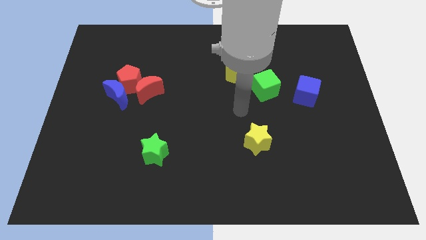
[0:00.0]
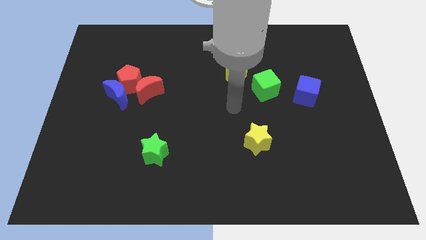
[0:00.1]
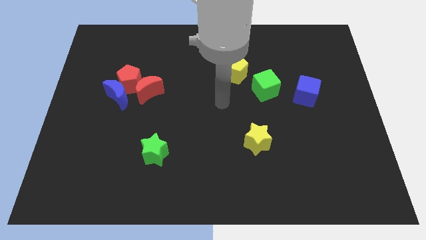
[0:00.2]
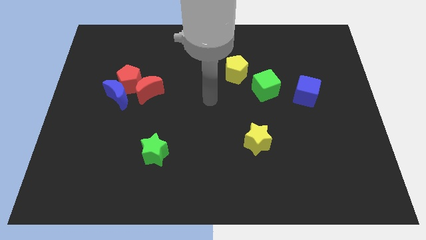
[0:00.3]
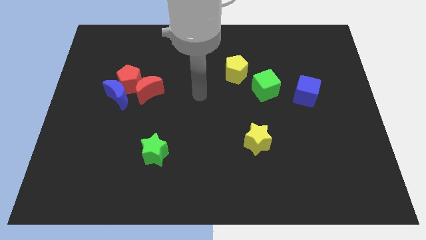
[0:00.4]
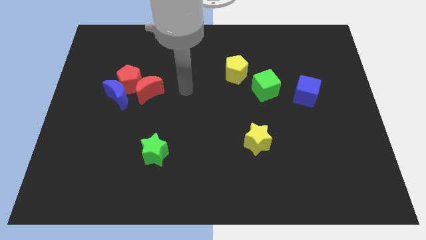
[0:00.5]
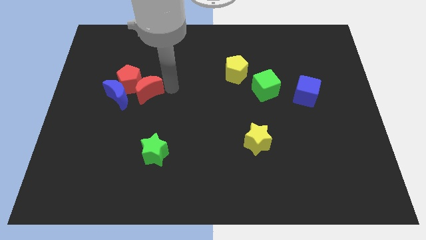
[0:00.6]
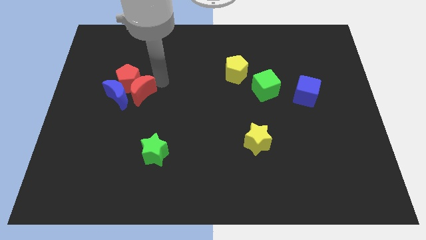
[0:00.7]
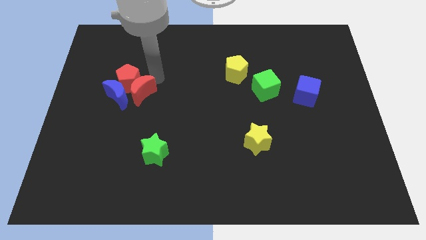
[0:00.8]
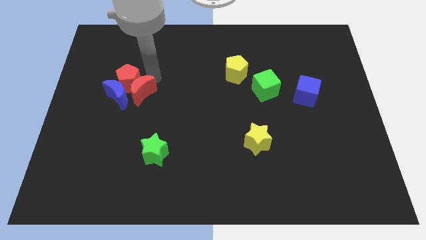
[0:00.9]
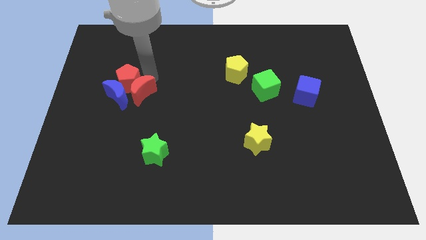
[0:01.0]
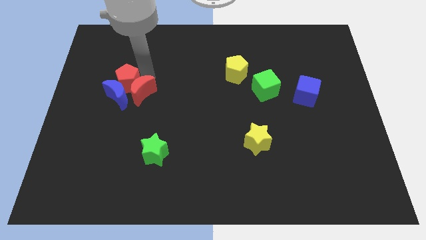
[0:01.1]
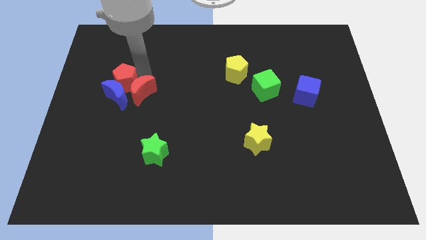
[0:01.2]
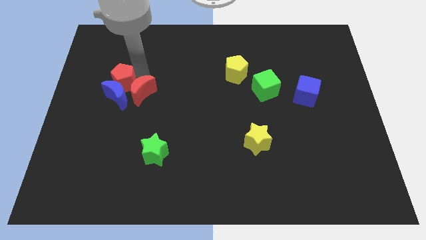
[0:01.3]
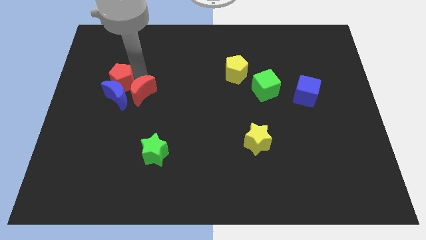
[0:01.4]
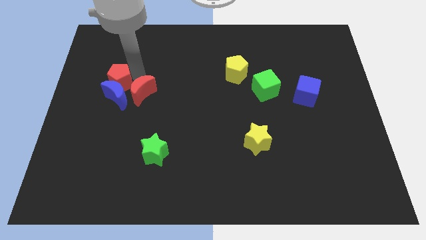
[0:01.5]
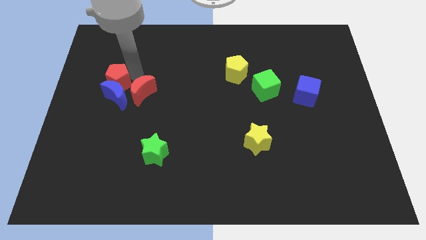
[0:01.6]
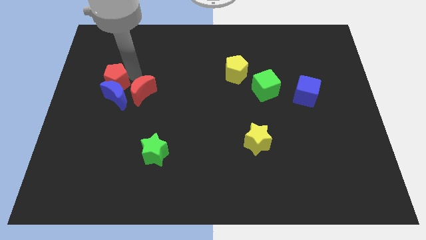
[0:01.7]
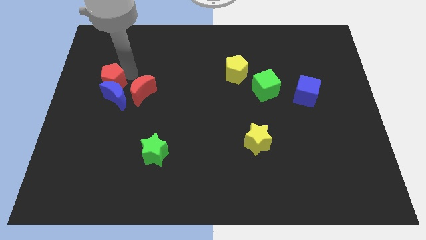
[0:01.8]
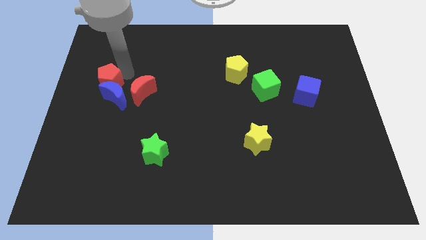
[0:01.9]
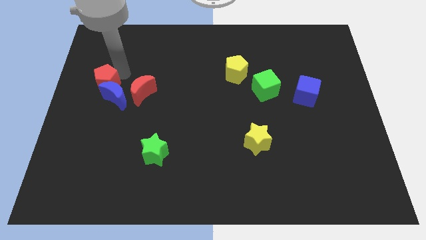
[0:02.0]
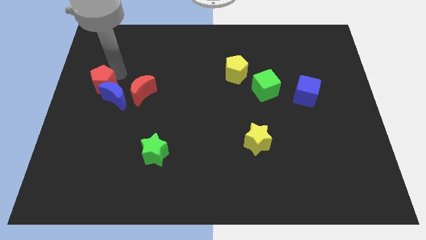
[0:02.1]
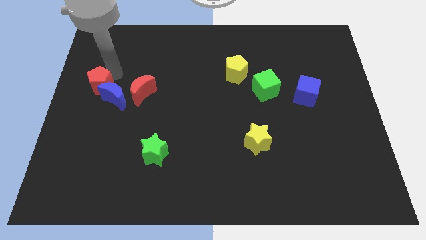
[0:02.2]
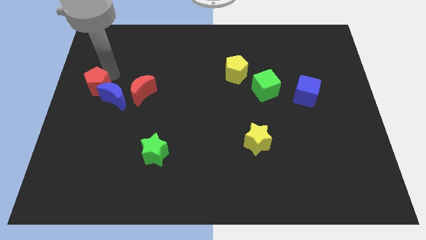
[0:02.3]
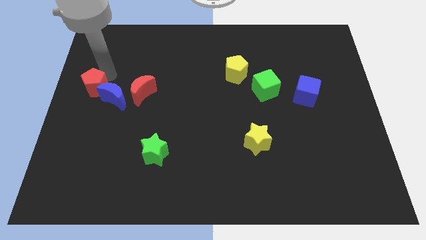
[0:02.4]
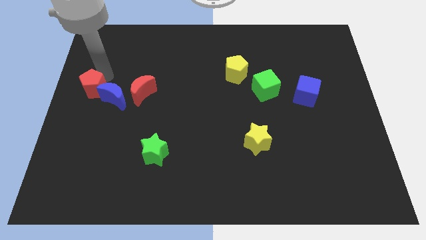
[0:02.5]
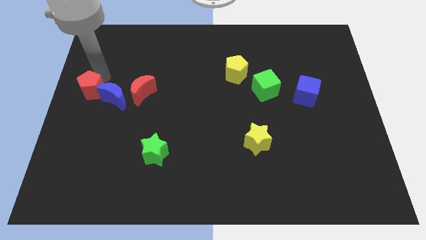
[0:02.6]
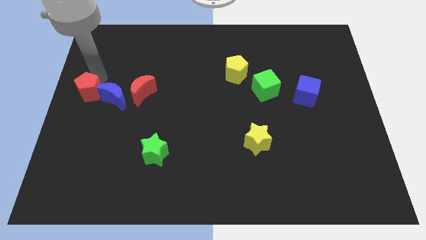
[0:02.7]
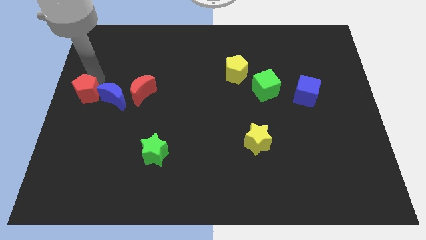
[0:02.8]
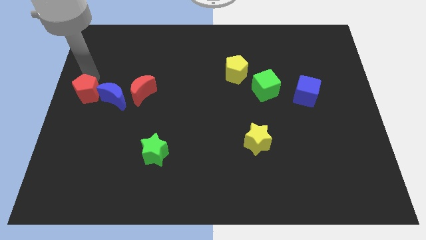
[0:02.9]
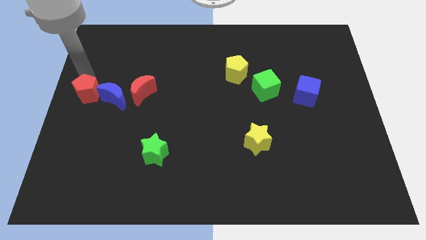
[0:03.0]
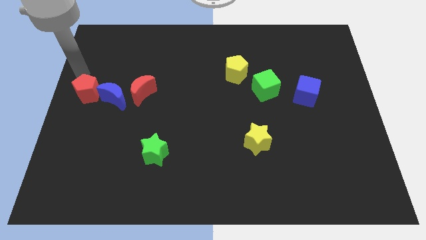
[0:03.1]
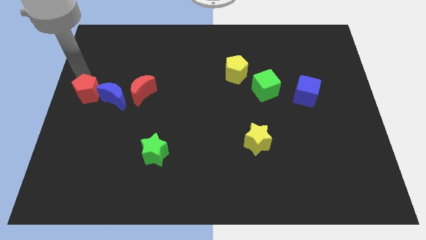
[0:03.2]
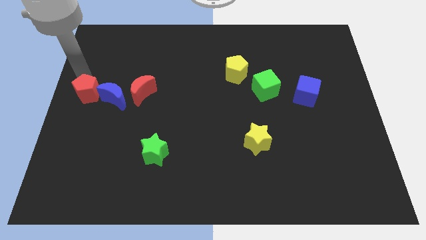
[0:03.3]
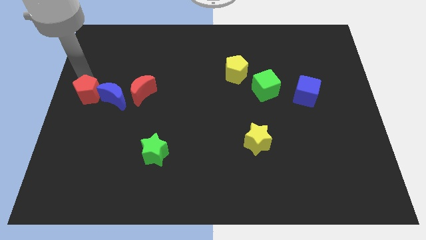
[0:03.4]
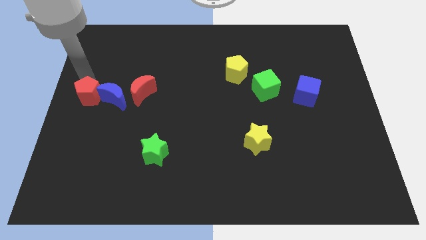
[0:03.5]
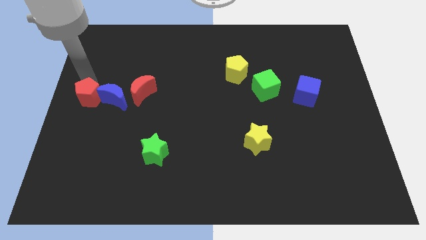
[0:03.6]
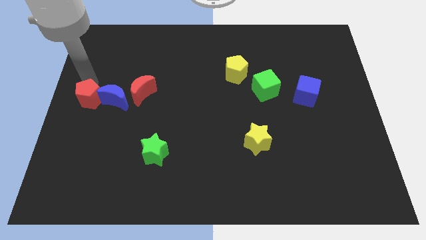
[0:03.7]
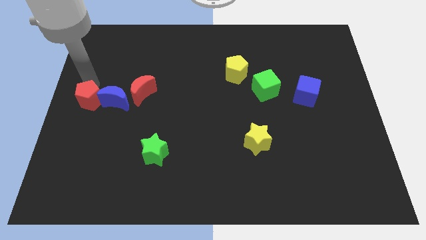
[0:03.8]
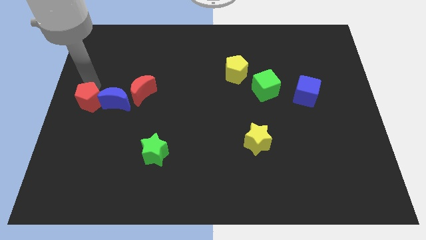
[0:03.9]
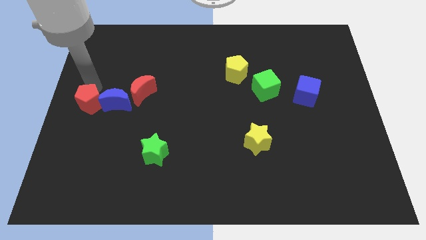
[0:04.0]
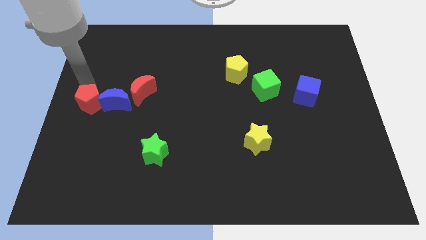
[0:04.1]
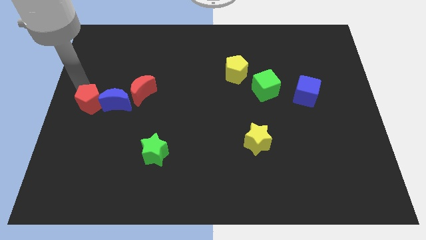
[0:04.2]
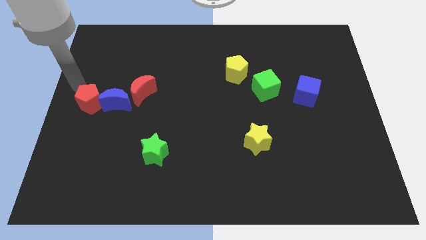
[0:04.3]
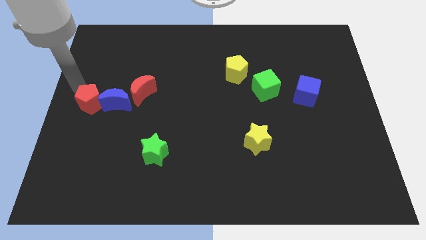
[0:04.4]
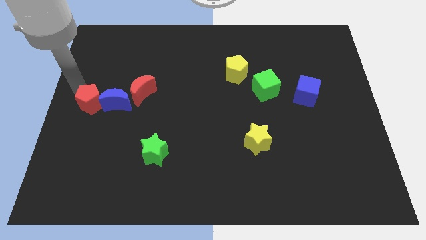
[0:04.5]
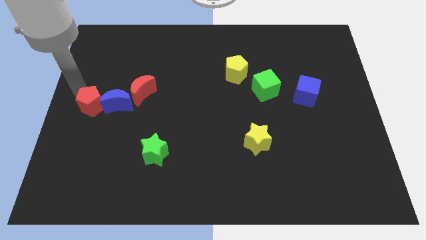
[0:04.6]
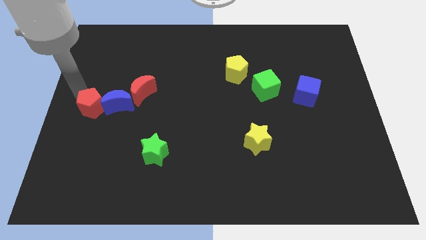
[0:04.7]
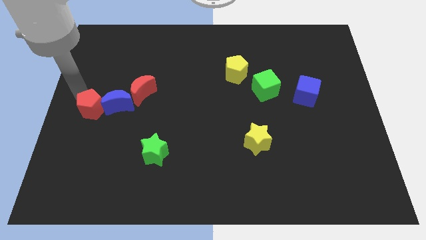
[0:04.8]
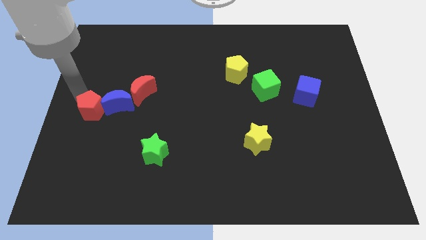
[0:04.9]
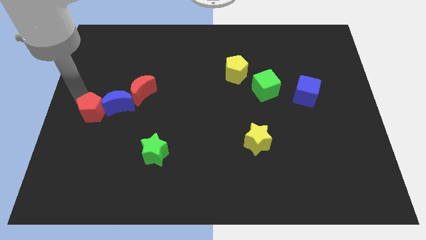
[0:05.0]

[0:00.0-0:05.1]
slide the red pentagon to the bottom left of the red moon

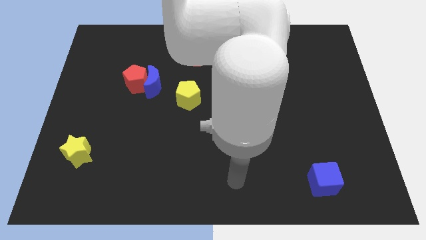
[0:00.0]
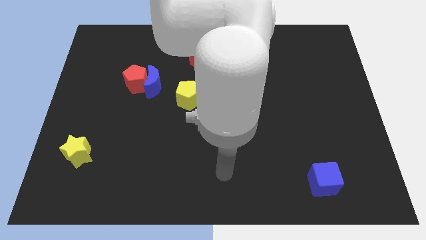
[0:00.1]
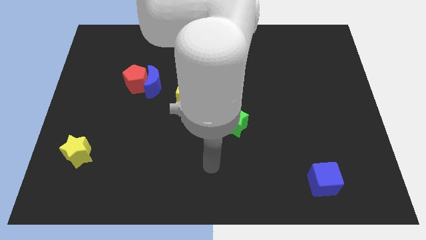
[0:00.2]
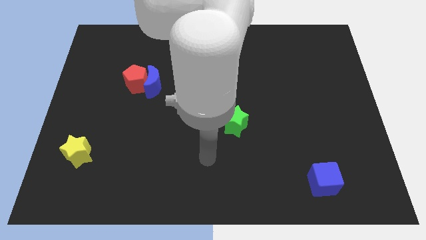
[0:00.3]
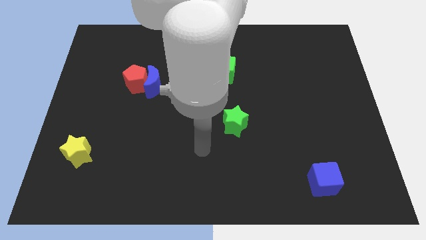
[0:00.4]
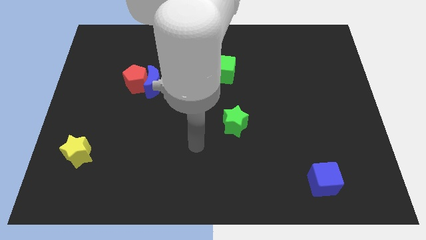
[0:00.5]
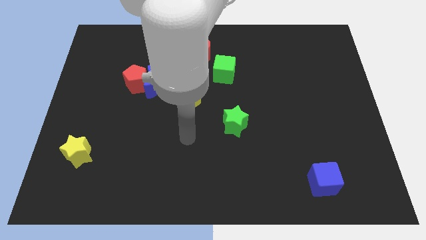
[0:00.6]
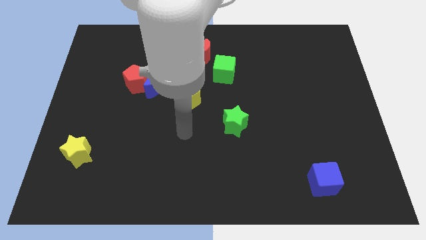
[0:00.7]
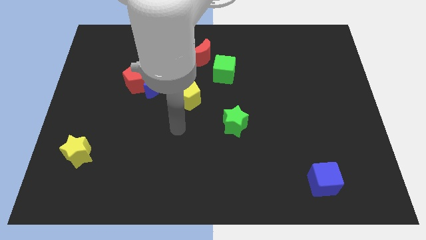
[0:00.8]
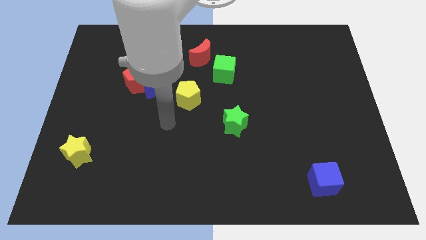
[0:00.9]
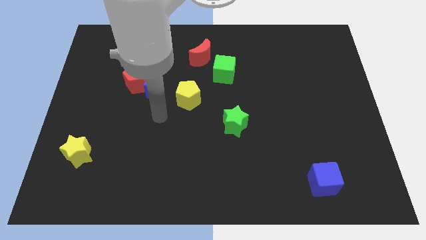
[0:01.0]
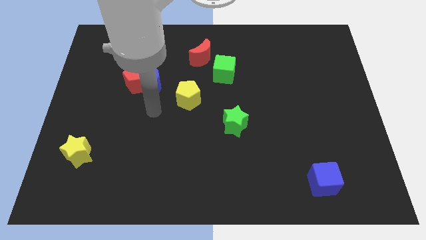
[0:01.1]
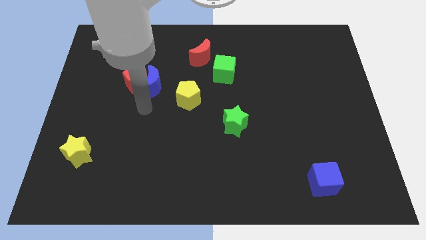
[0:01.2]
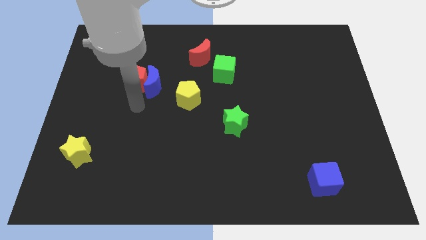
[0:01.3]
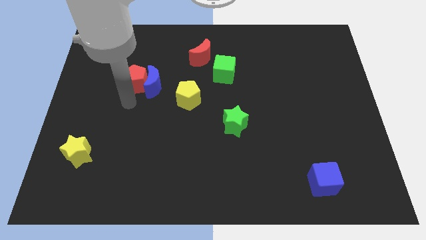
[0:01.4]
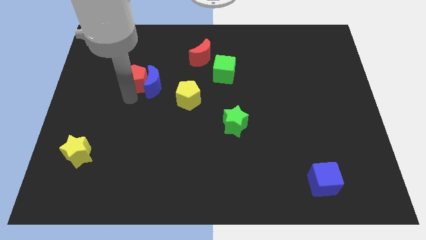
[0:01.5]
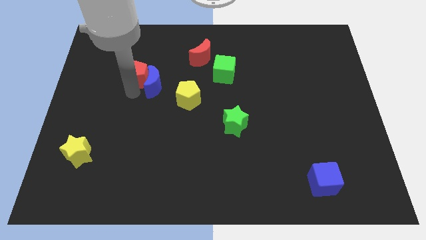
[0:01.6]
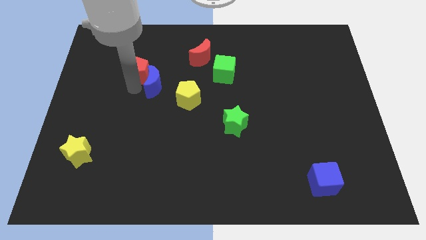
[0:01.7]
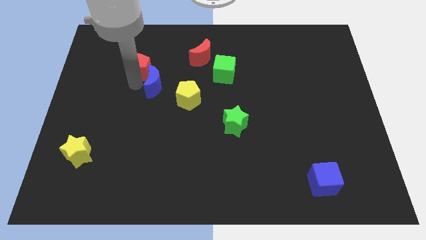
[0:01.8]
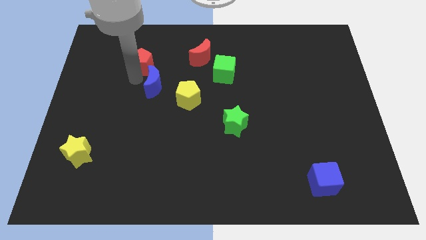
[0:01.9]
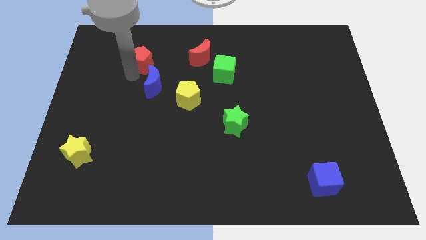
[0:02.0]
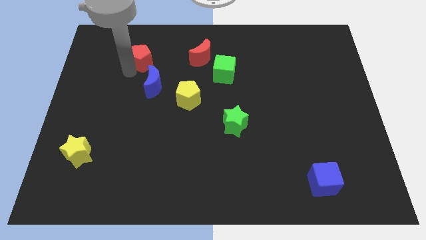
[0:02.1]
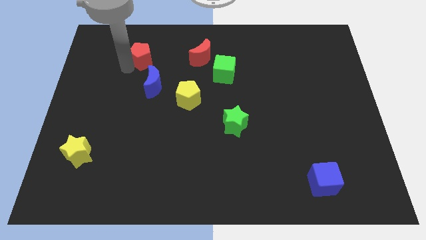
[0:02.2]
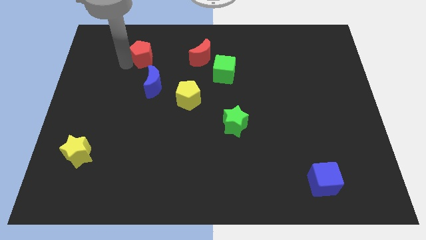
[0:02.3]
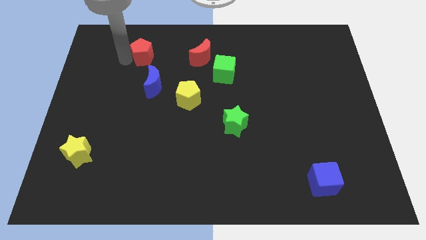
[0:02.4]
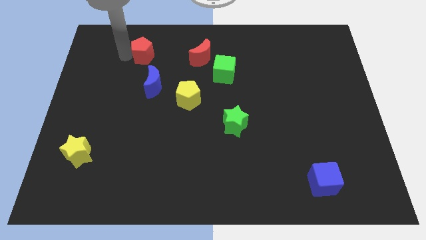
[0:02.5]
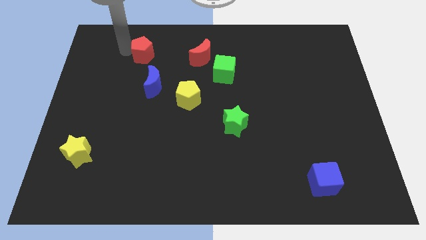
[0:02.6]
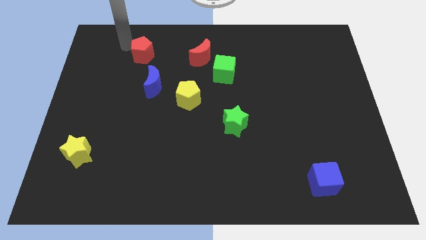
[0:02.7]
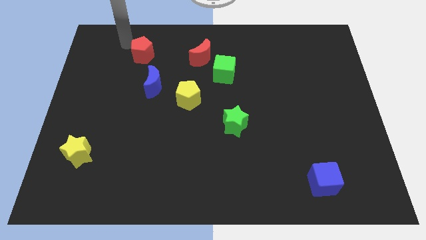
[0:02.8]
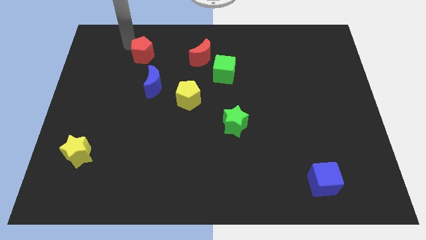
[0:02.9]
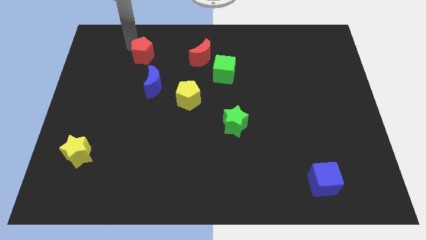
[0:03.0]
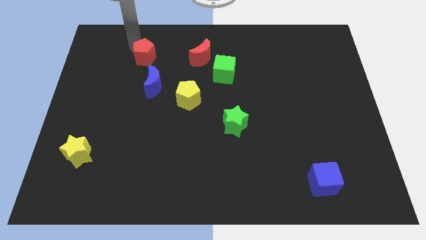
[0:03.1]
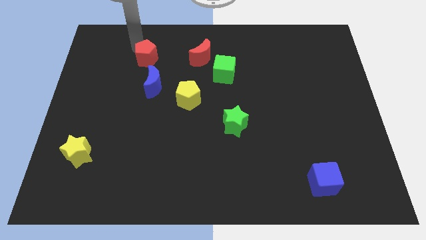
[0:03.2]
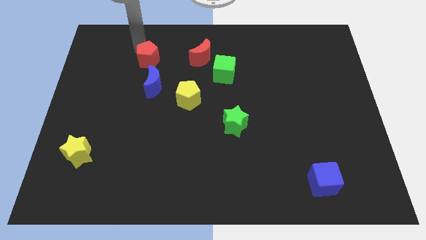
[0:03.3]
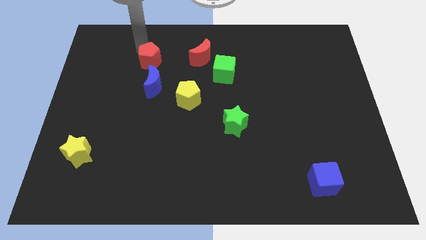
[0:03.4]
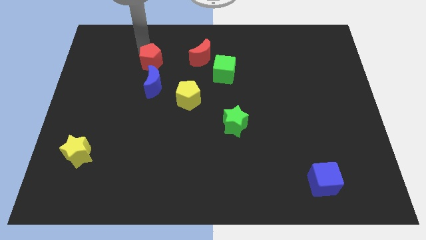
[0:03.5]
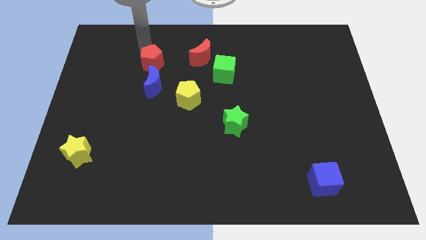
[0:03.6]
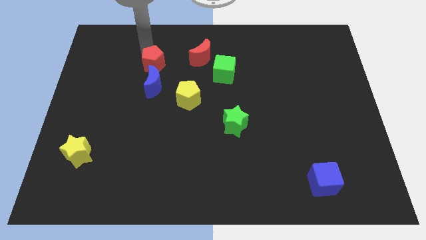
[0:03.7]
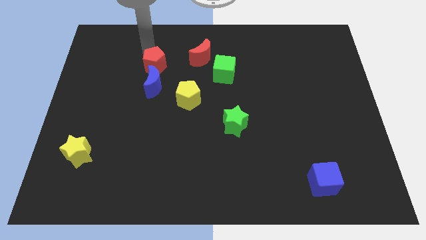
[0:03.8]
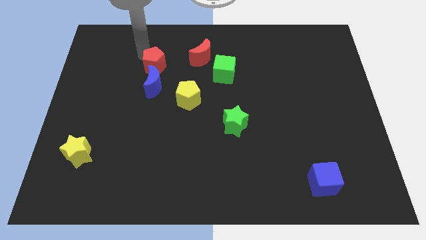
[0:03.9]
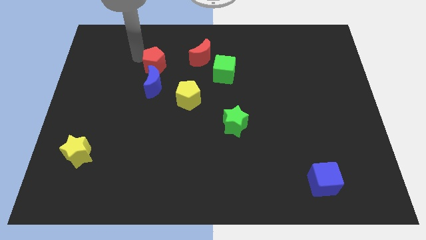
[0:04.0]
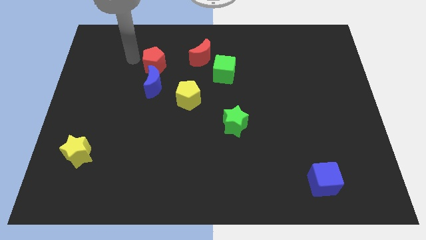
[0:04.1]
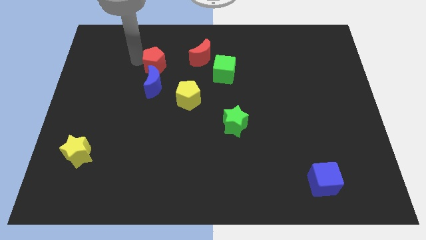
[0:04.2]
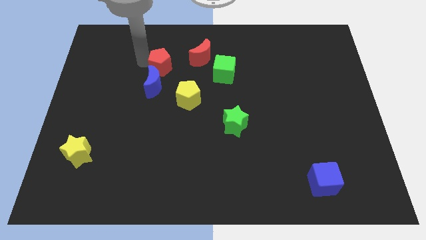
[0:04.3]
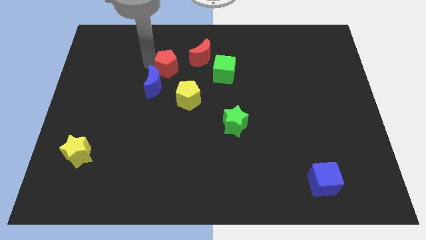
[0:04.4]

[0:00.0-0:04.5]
put the red pentagon diagonally down and to the left of the red moon
